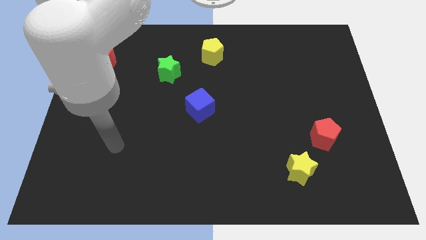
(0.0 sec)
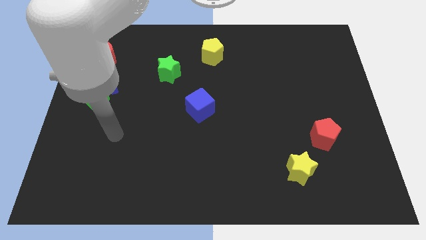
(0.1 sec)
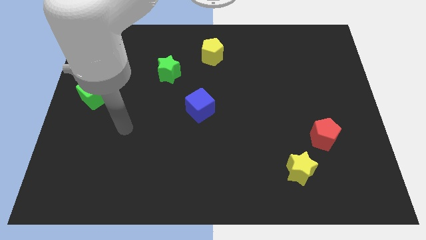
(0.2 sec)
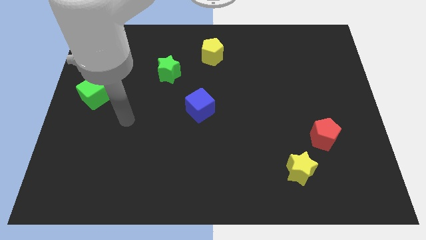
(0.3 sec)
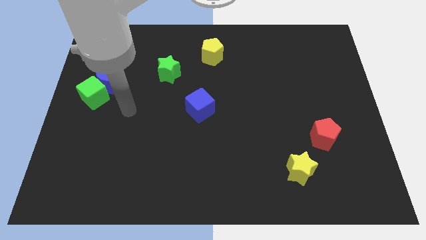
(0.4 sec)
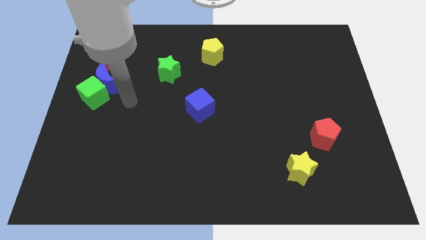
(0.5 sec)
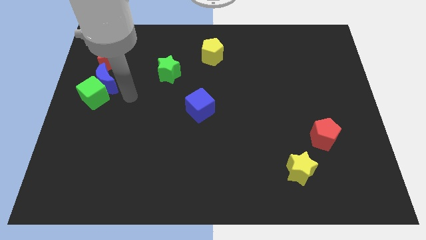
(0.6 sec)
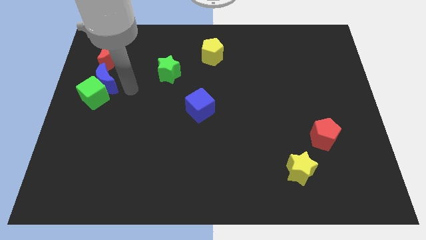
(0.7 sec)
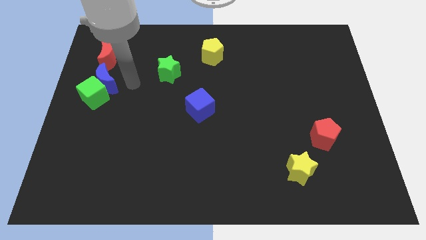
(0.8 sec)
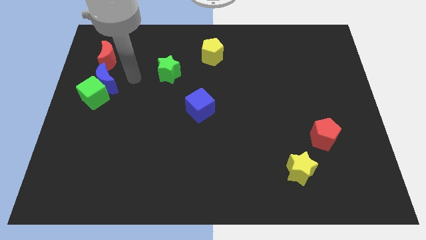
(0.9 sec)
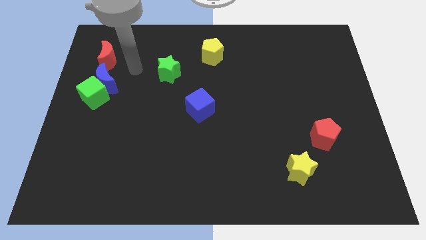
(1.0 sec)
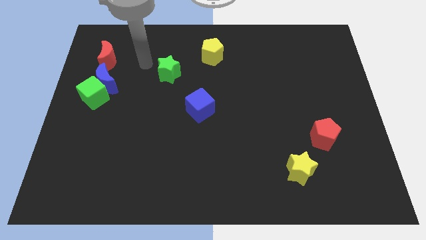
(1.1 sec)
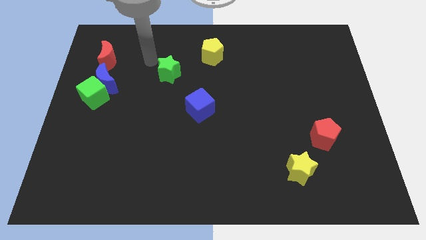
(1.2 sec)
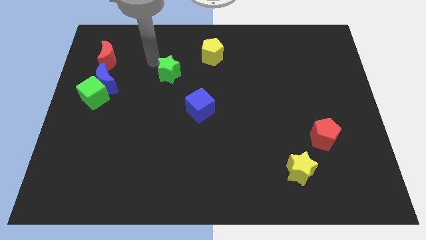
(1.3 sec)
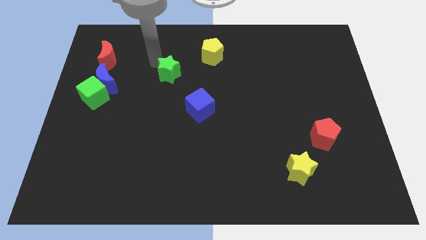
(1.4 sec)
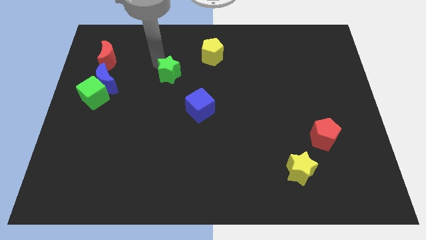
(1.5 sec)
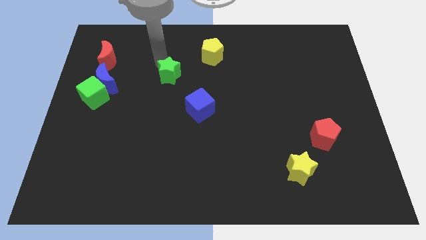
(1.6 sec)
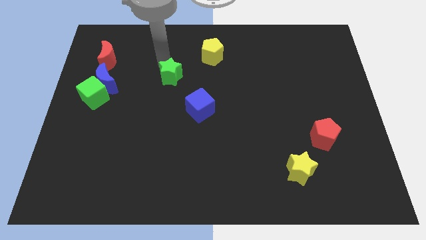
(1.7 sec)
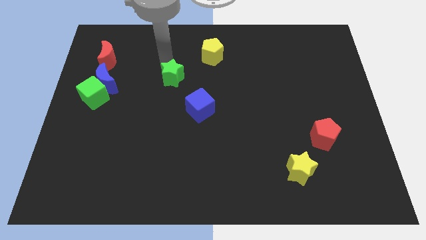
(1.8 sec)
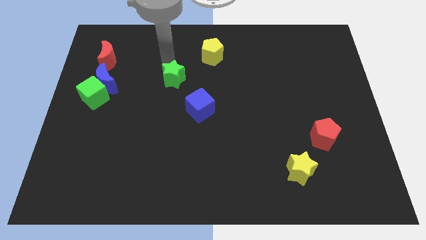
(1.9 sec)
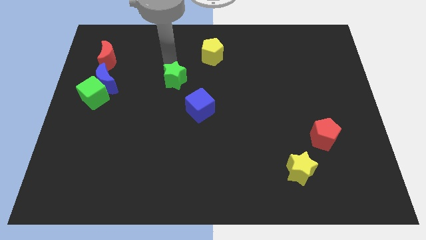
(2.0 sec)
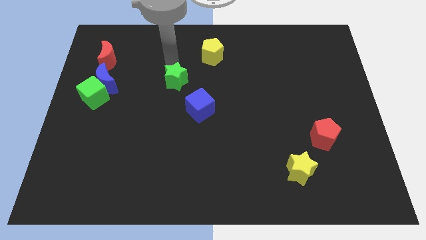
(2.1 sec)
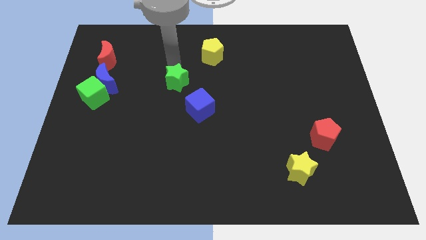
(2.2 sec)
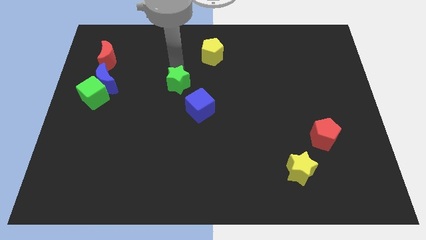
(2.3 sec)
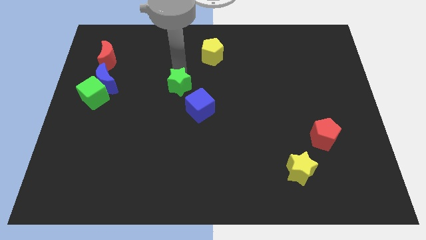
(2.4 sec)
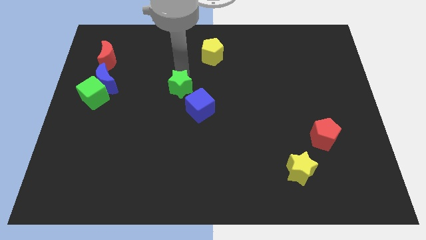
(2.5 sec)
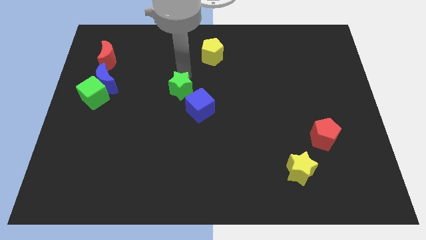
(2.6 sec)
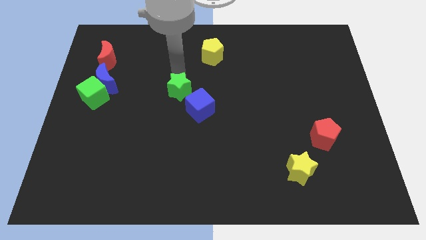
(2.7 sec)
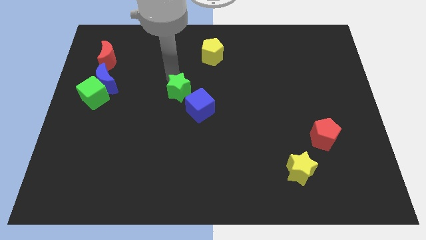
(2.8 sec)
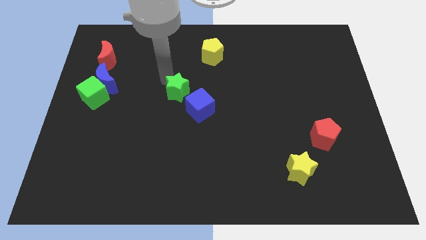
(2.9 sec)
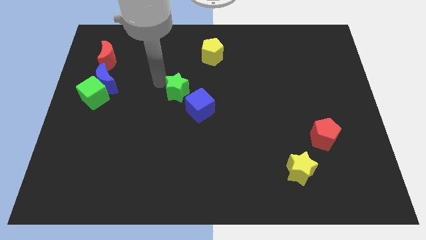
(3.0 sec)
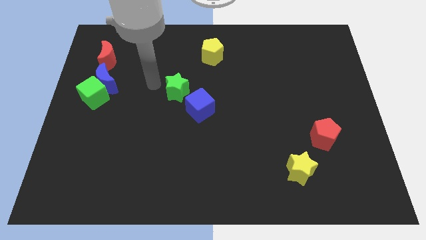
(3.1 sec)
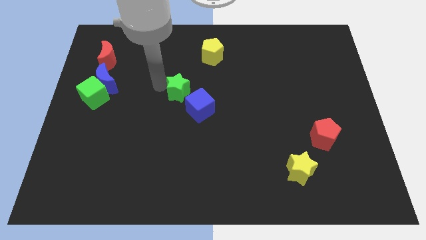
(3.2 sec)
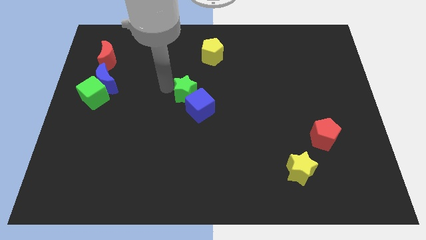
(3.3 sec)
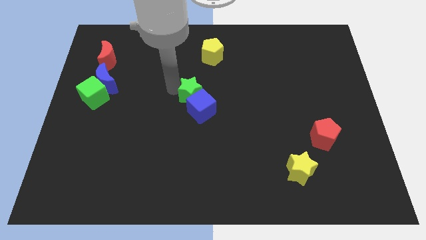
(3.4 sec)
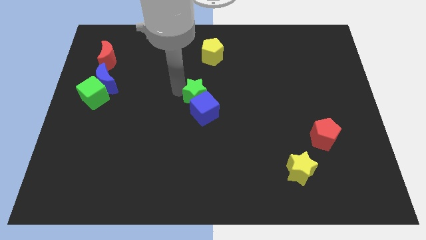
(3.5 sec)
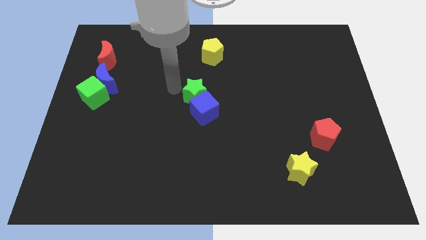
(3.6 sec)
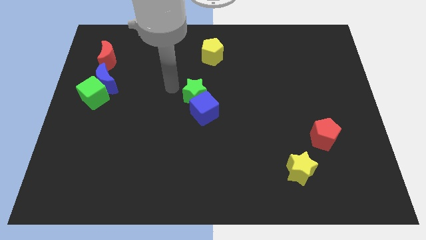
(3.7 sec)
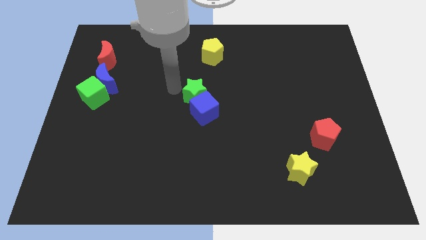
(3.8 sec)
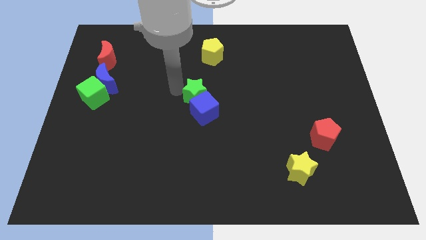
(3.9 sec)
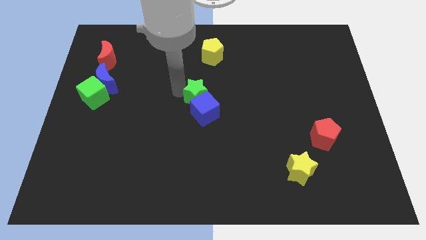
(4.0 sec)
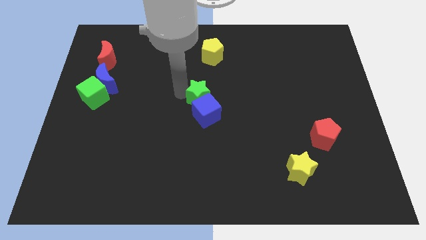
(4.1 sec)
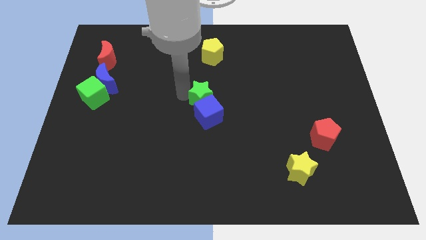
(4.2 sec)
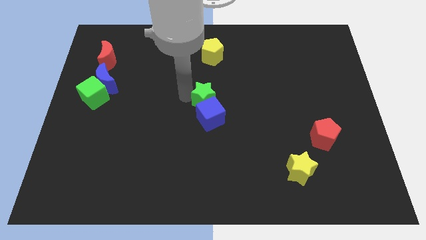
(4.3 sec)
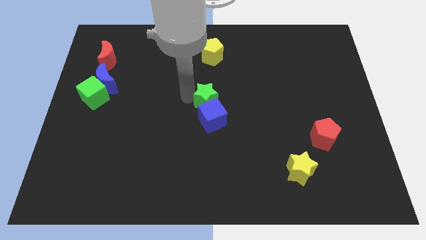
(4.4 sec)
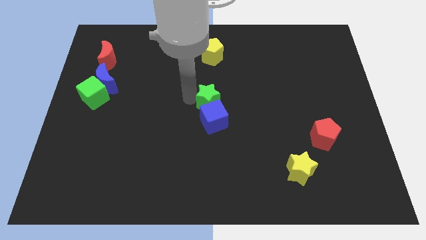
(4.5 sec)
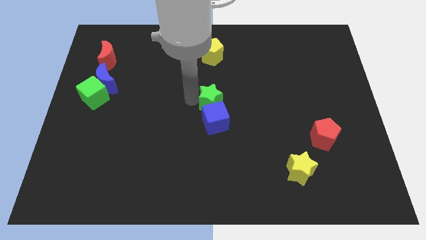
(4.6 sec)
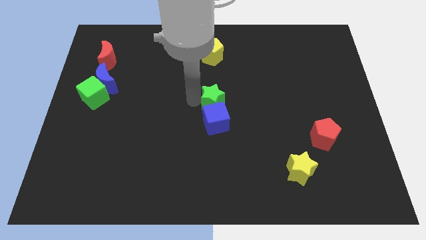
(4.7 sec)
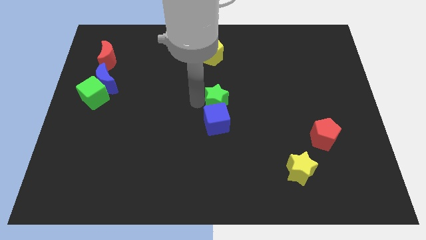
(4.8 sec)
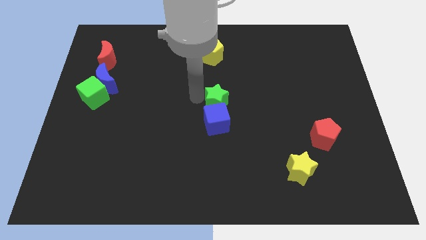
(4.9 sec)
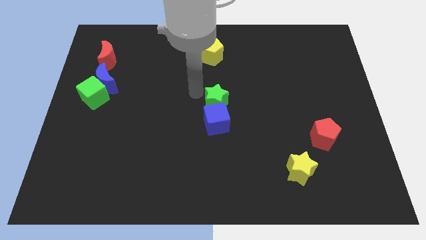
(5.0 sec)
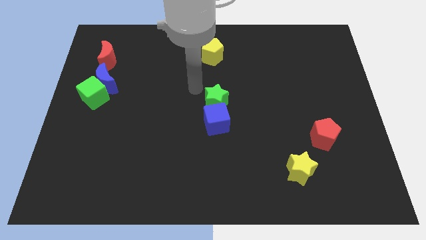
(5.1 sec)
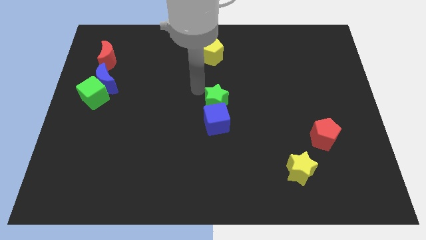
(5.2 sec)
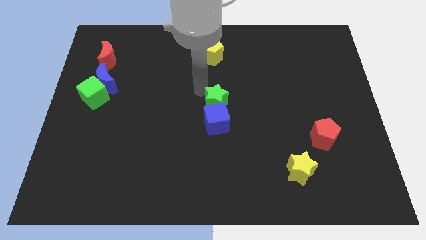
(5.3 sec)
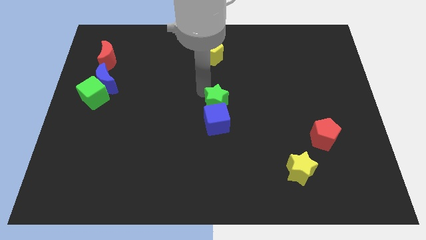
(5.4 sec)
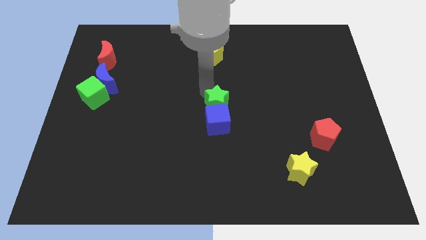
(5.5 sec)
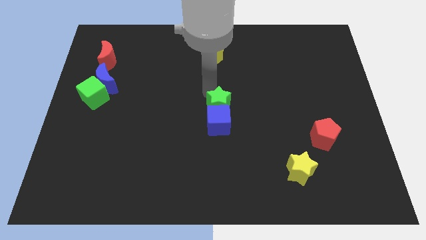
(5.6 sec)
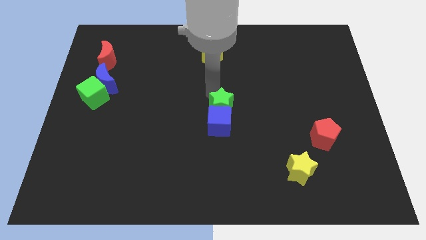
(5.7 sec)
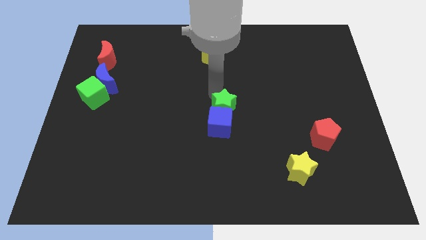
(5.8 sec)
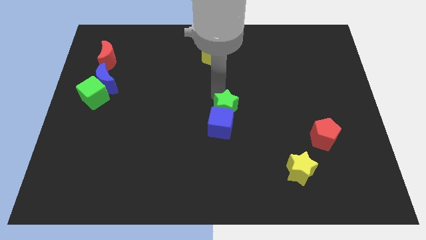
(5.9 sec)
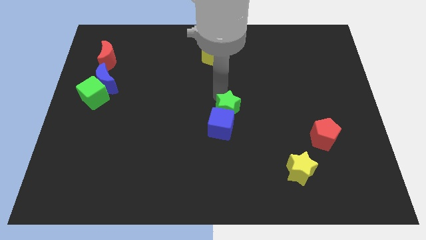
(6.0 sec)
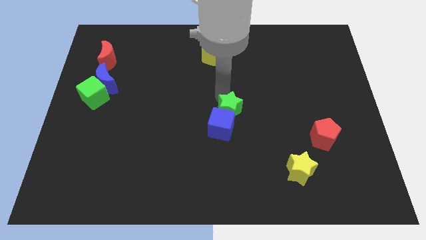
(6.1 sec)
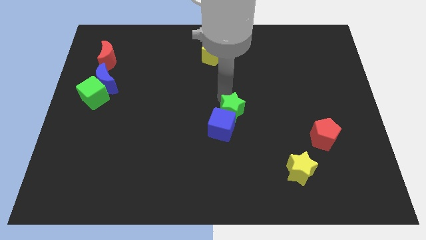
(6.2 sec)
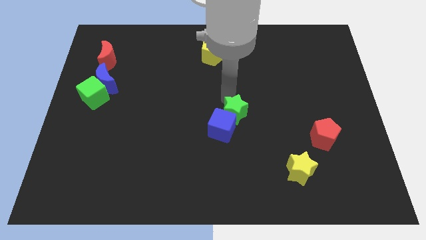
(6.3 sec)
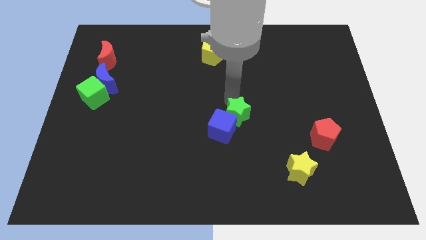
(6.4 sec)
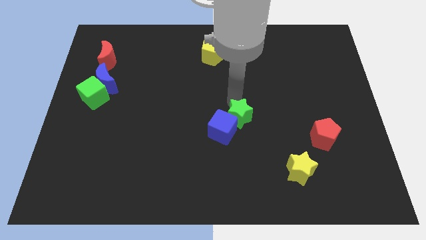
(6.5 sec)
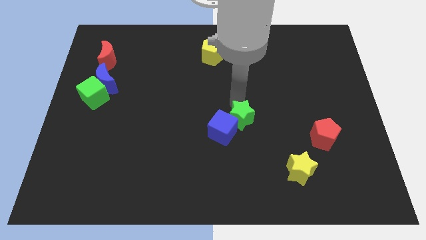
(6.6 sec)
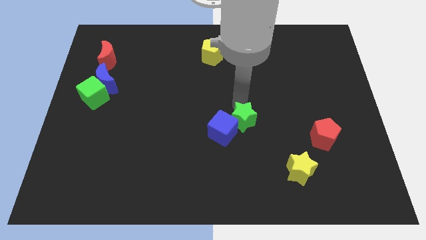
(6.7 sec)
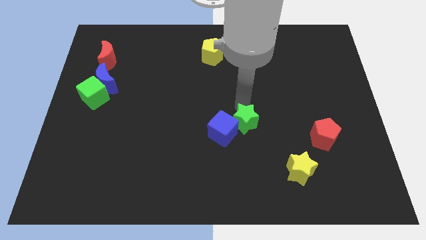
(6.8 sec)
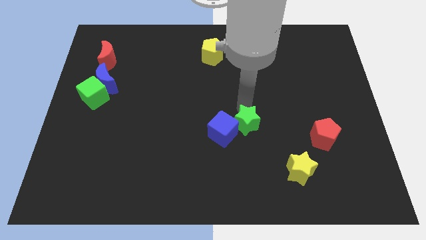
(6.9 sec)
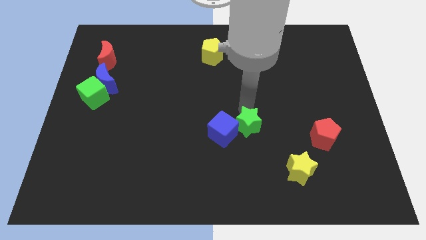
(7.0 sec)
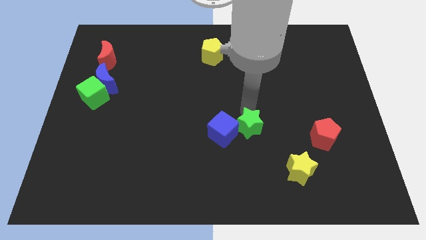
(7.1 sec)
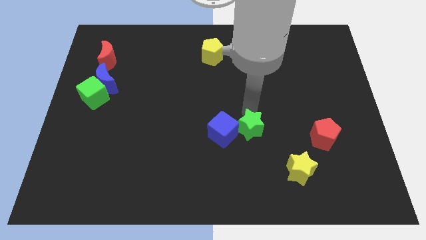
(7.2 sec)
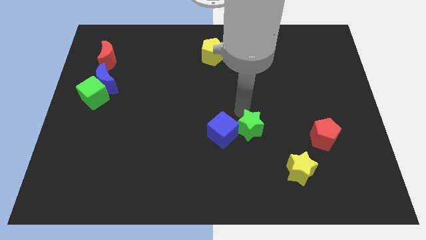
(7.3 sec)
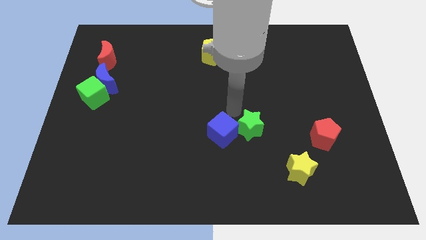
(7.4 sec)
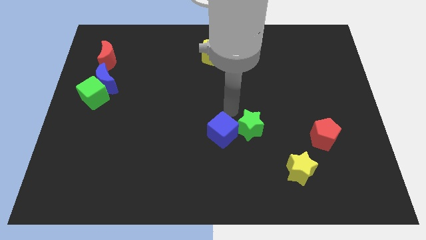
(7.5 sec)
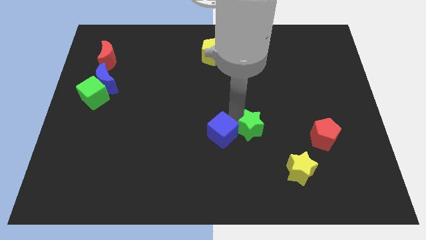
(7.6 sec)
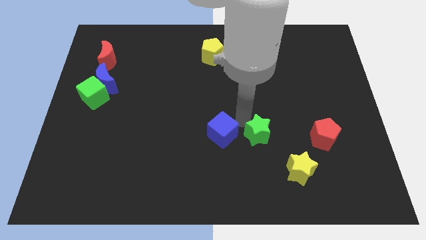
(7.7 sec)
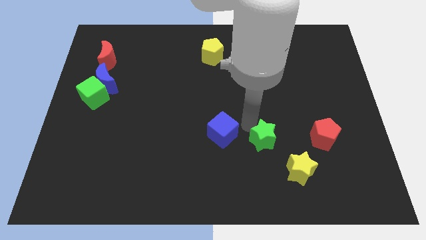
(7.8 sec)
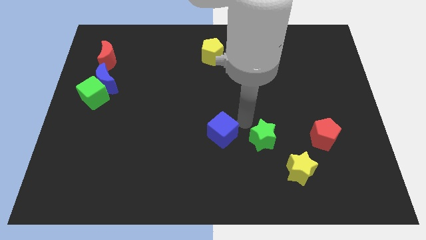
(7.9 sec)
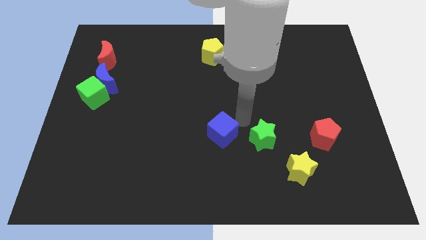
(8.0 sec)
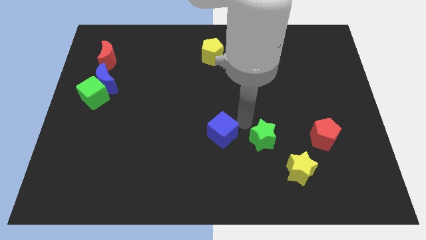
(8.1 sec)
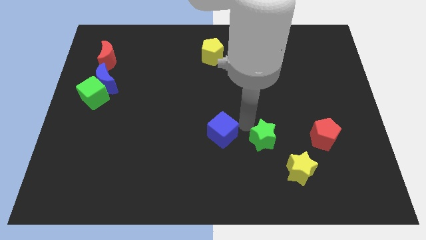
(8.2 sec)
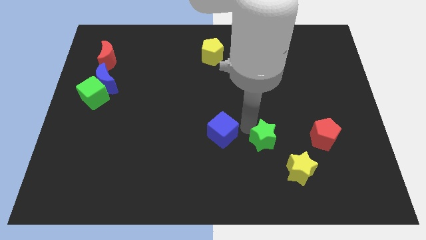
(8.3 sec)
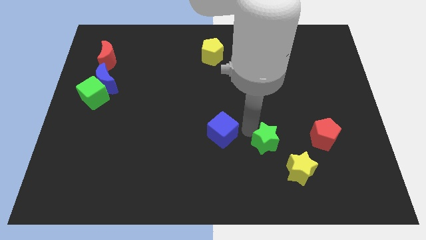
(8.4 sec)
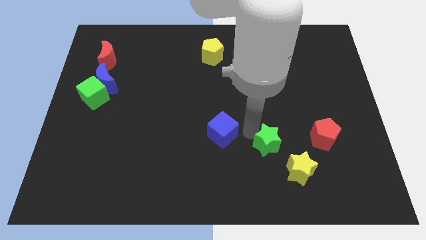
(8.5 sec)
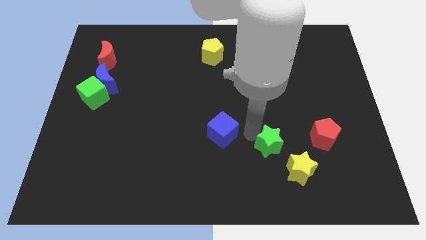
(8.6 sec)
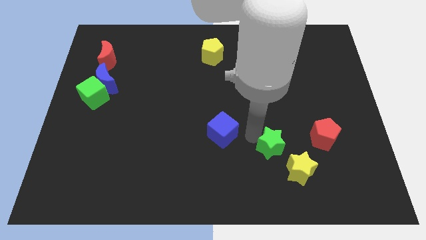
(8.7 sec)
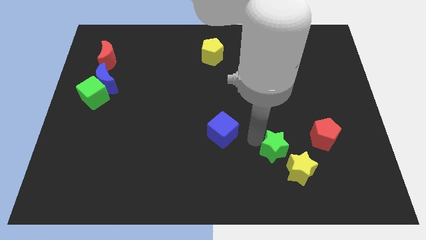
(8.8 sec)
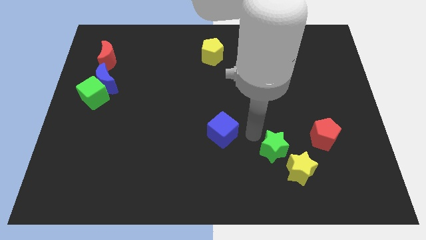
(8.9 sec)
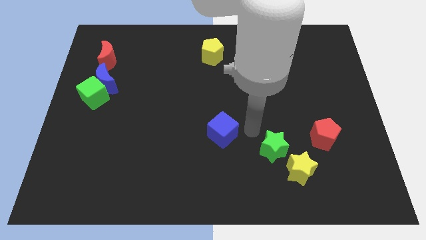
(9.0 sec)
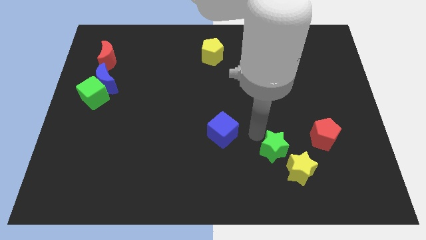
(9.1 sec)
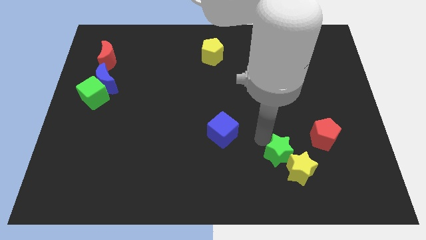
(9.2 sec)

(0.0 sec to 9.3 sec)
slide the green star next to the yellow star
